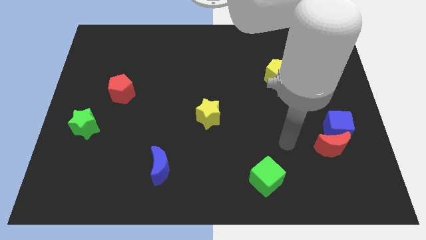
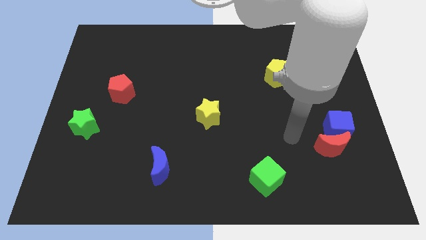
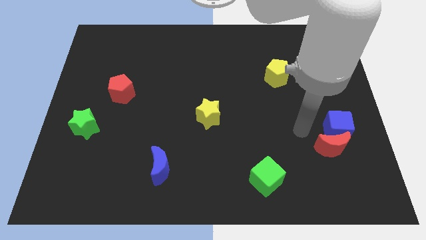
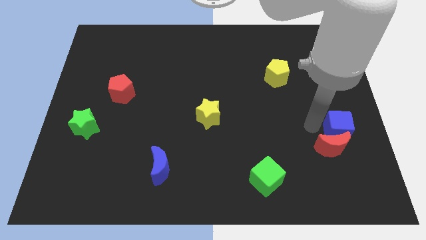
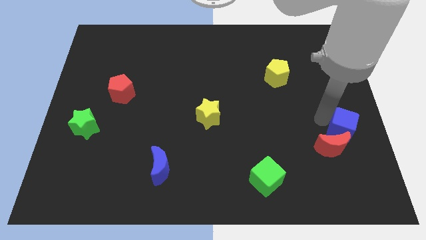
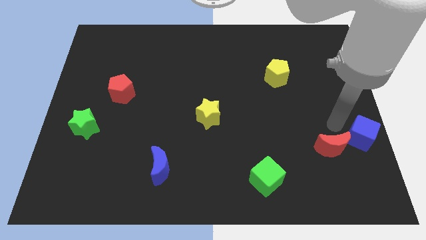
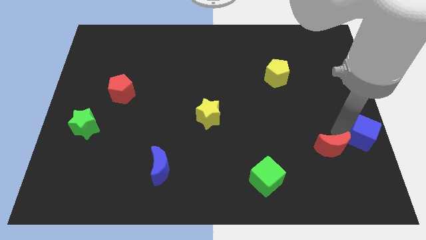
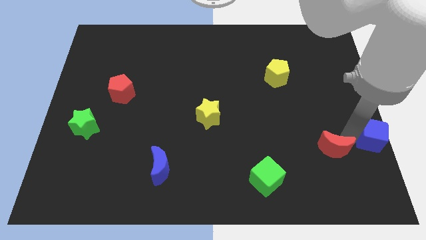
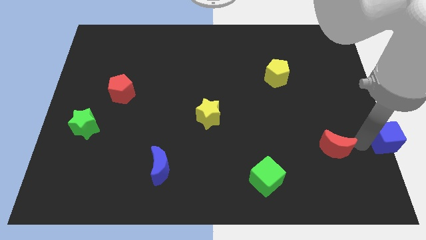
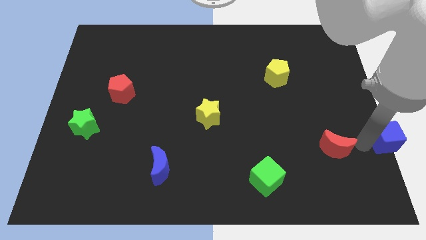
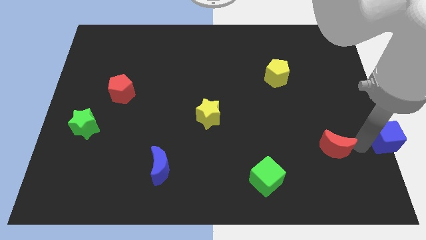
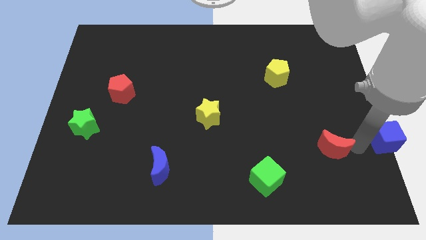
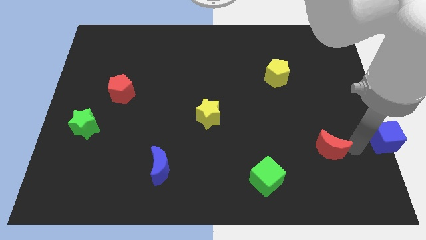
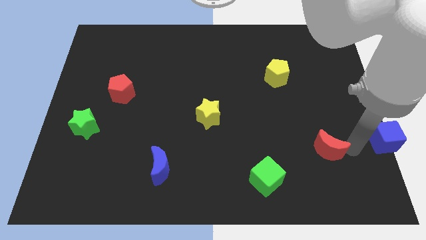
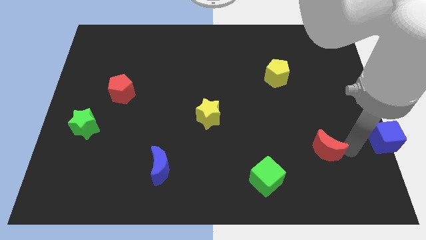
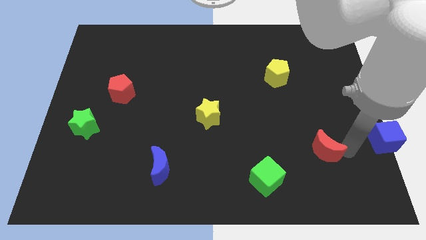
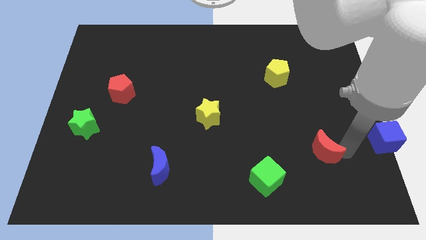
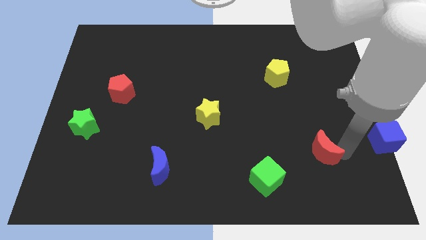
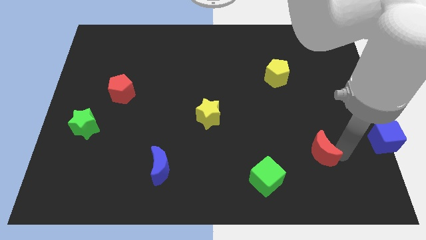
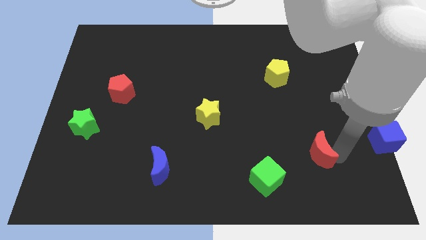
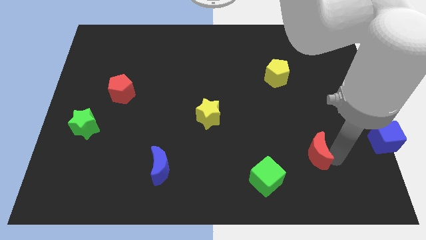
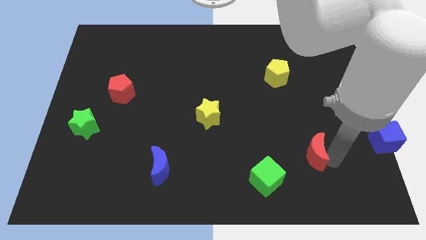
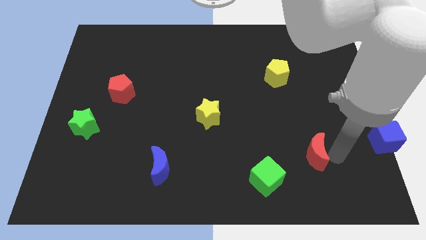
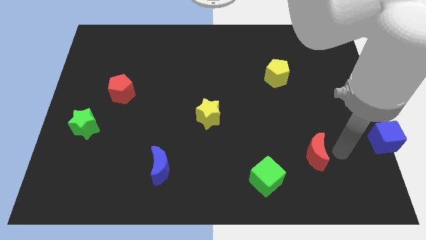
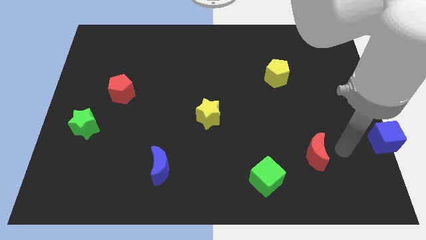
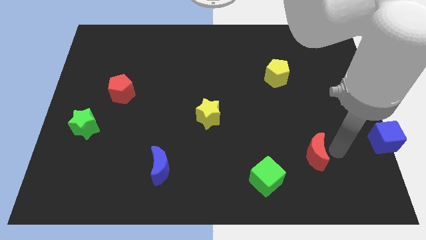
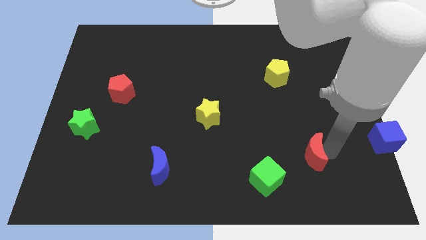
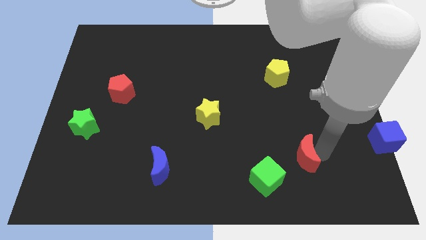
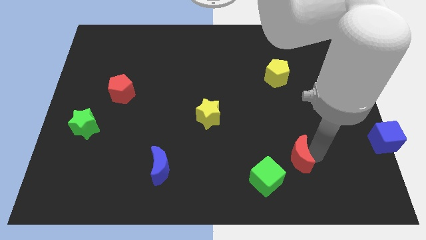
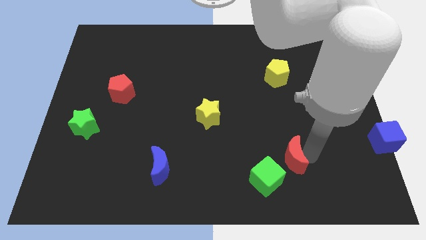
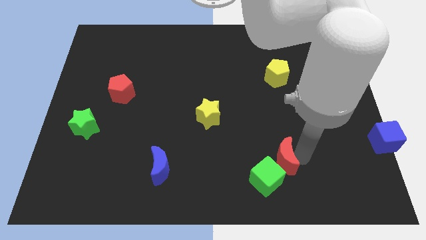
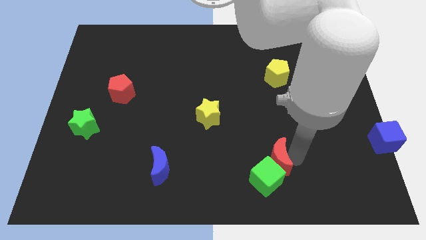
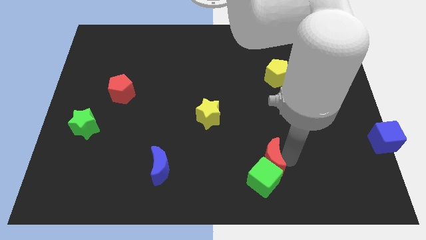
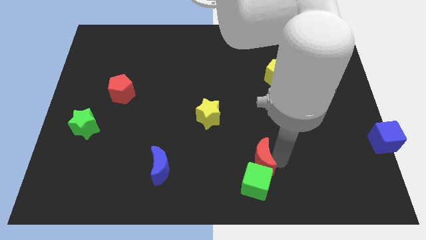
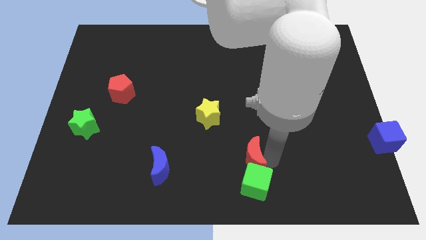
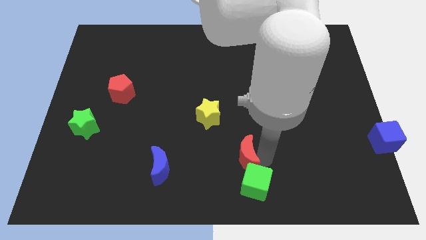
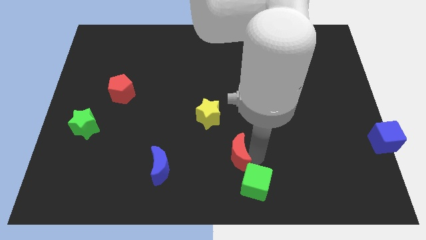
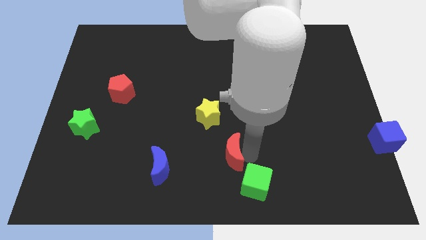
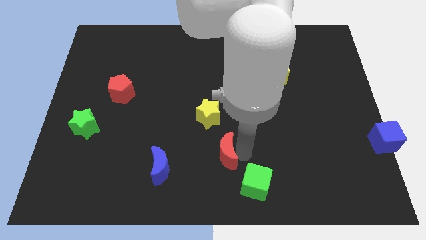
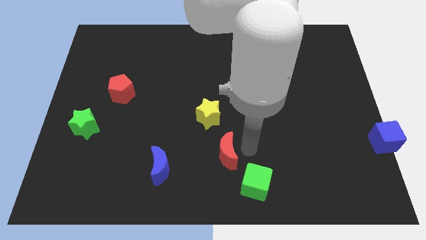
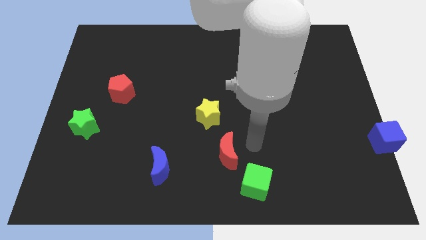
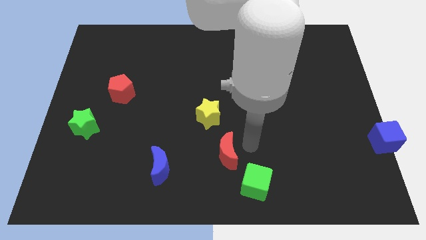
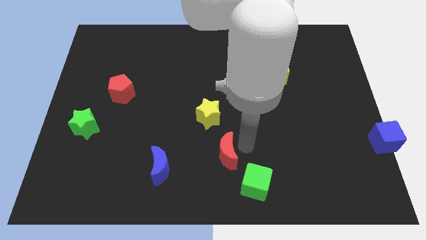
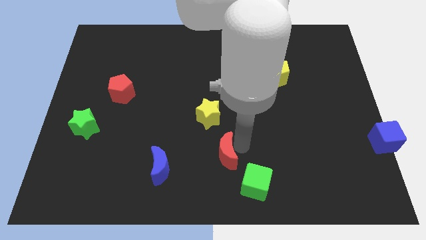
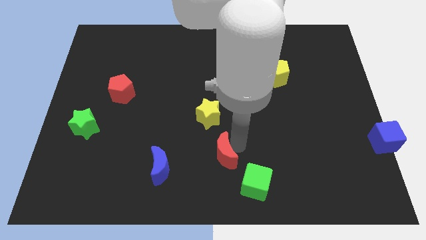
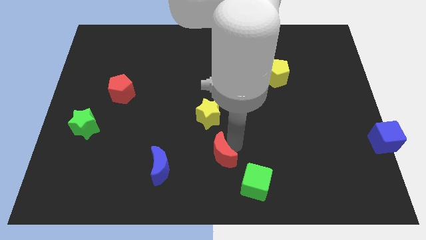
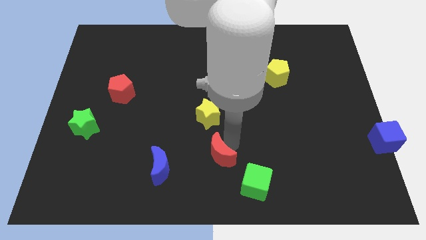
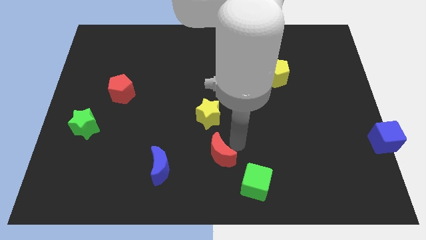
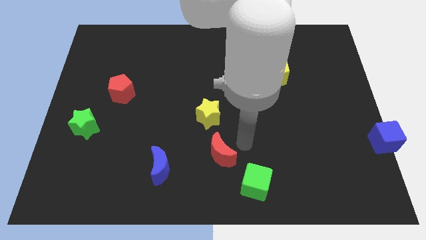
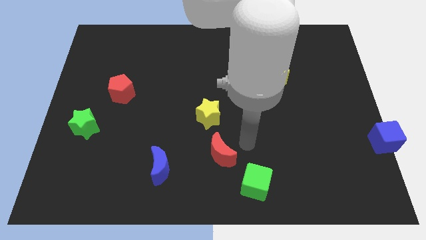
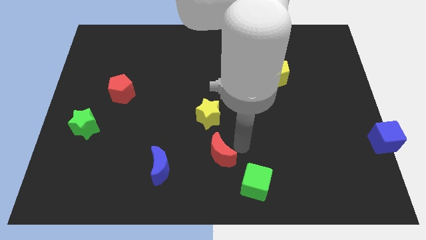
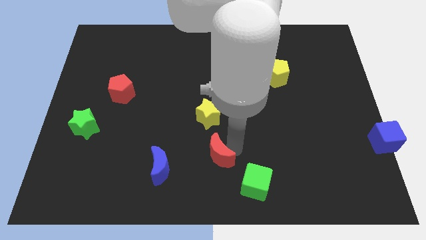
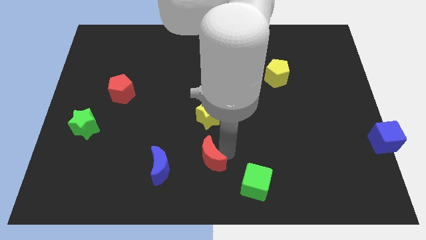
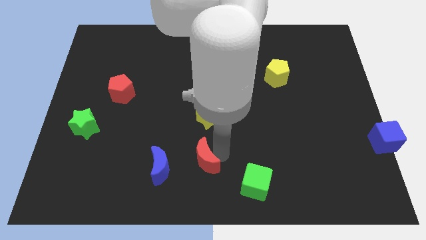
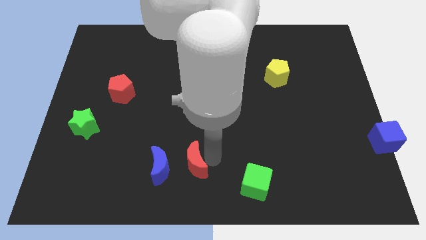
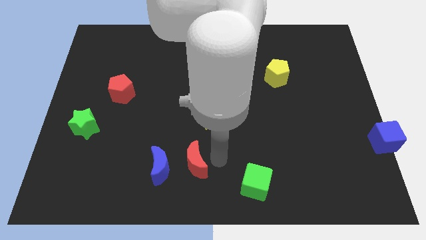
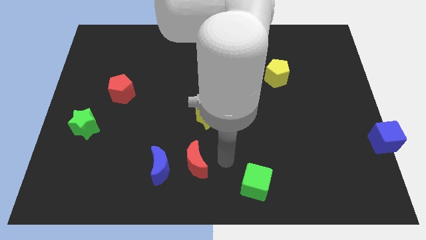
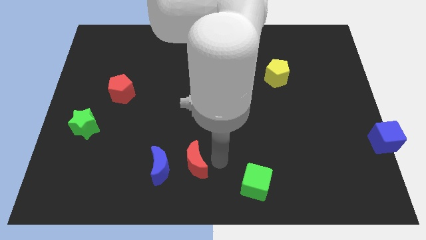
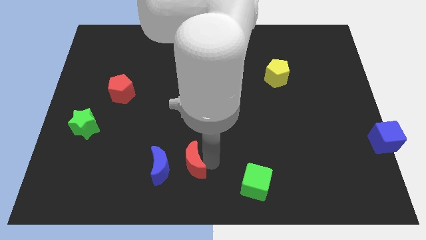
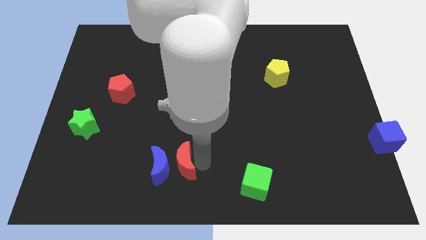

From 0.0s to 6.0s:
push the red moon towards the blue moon
